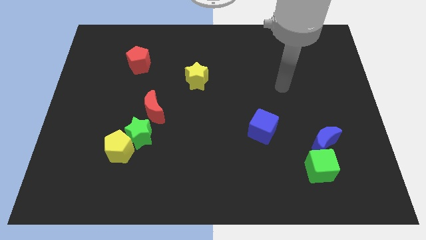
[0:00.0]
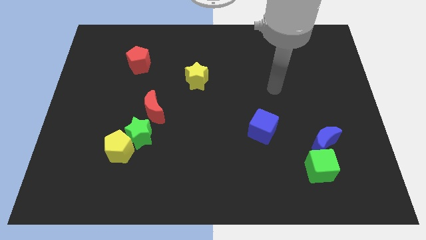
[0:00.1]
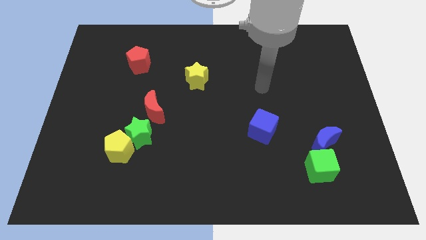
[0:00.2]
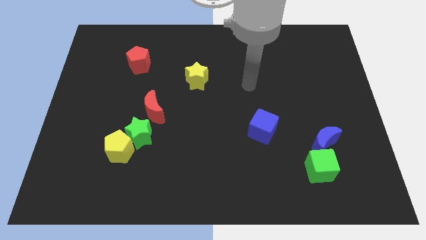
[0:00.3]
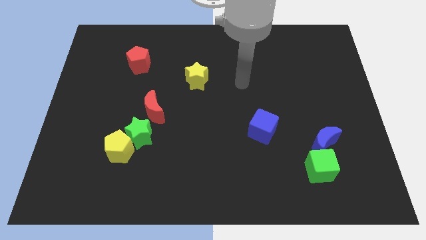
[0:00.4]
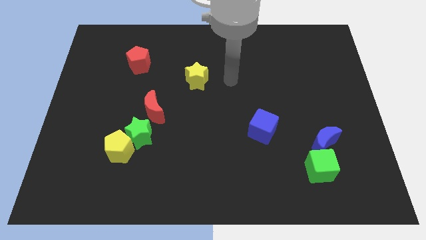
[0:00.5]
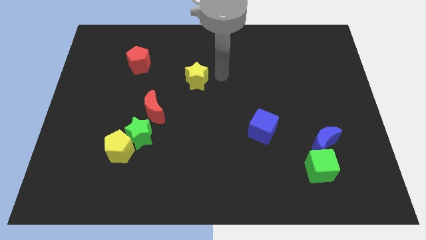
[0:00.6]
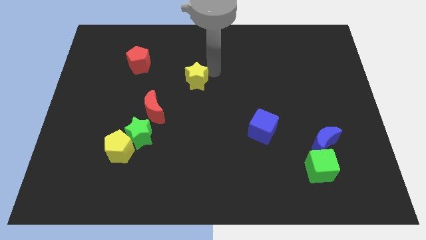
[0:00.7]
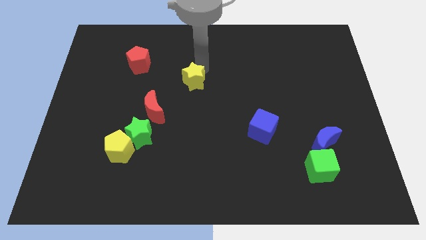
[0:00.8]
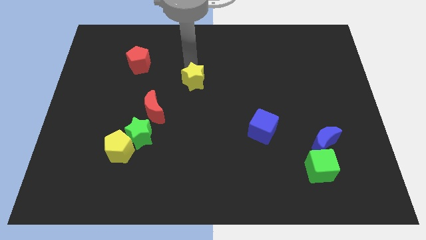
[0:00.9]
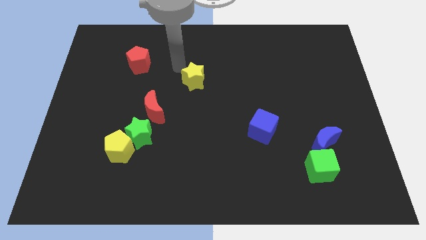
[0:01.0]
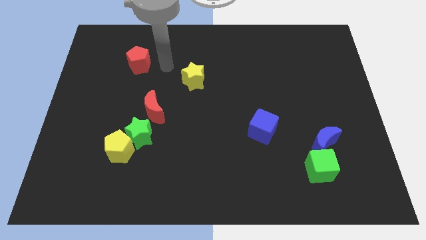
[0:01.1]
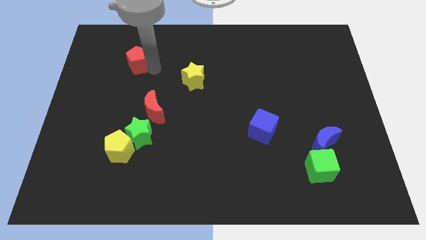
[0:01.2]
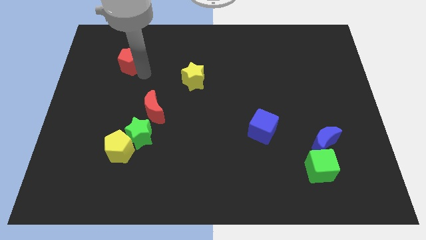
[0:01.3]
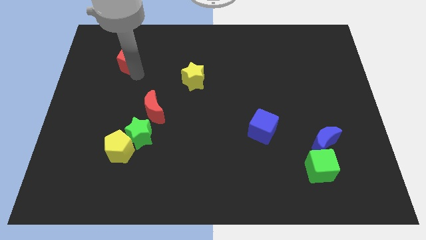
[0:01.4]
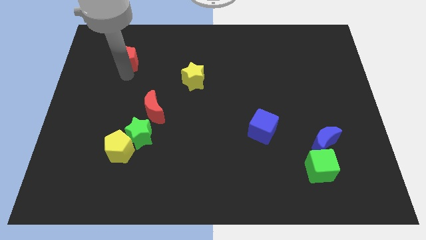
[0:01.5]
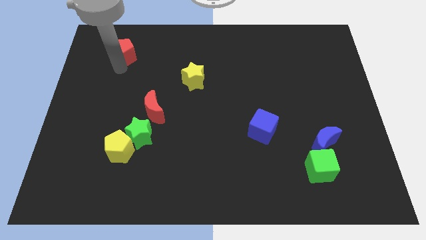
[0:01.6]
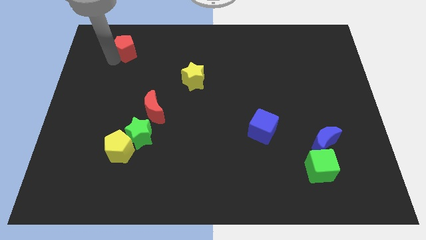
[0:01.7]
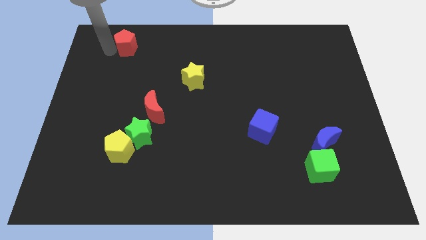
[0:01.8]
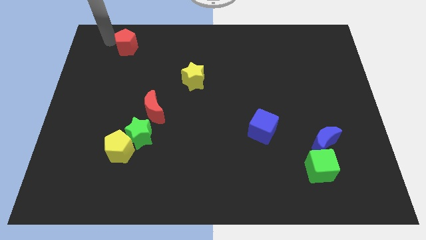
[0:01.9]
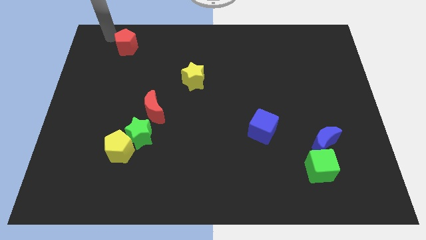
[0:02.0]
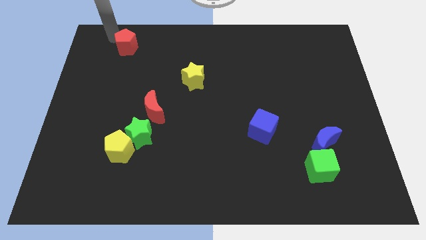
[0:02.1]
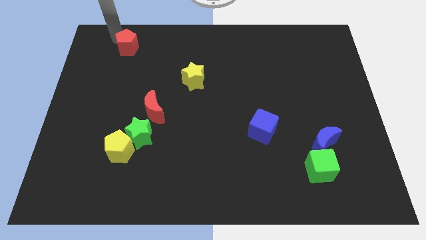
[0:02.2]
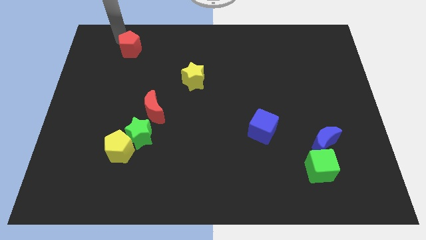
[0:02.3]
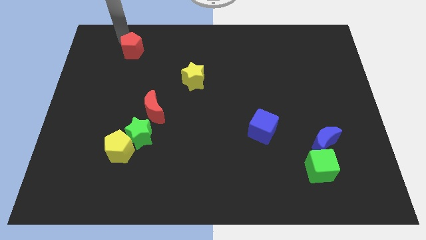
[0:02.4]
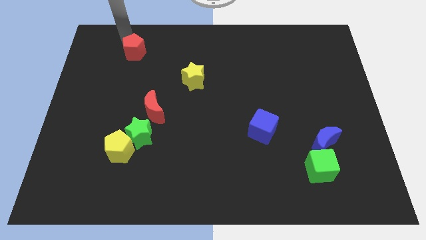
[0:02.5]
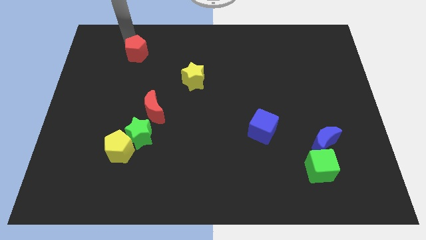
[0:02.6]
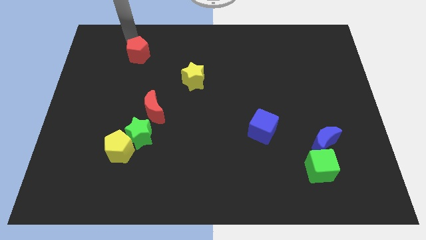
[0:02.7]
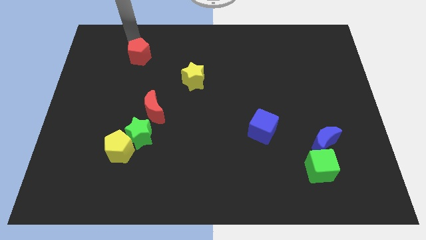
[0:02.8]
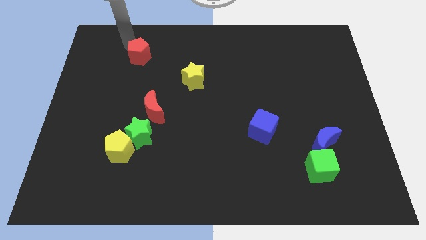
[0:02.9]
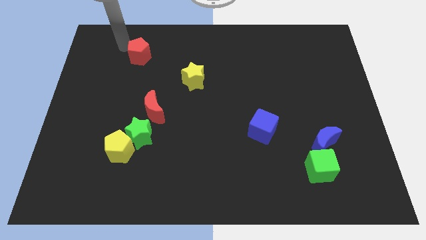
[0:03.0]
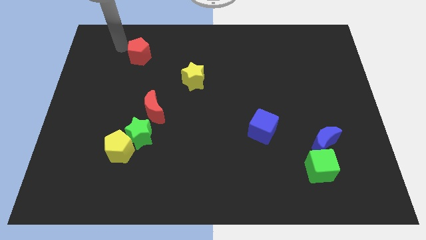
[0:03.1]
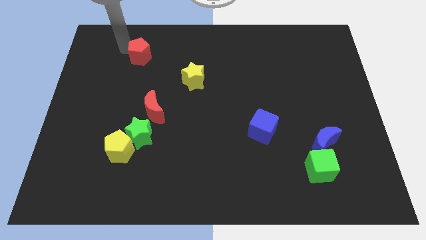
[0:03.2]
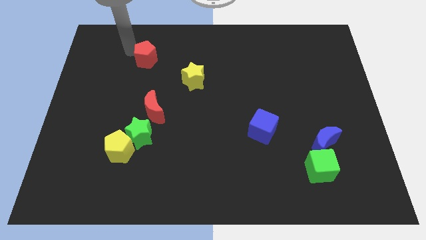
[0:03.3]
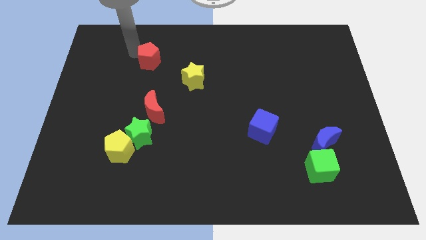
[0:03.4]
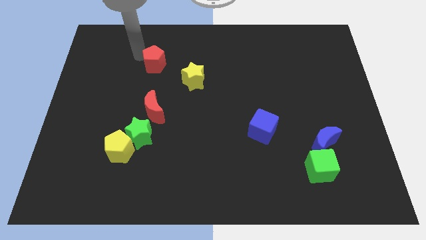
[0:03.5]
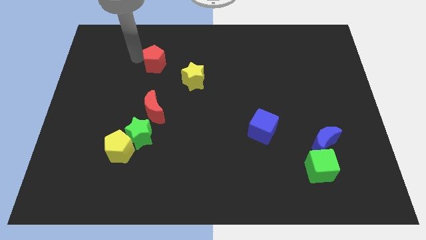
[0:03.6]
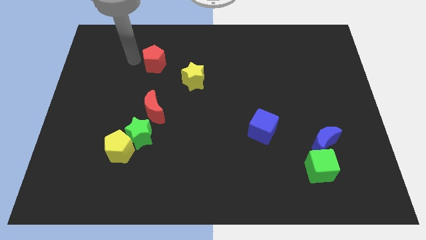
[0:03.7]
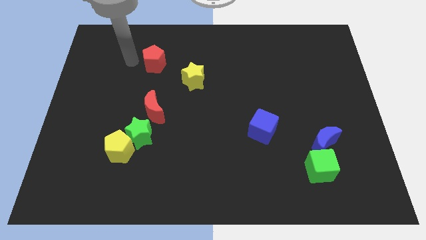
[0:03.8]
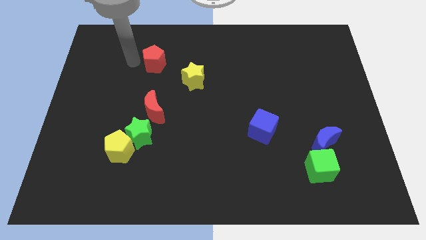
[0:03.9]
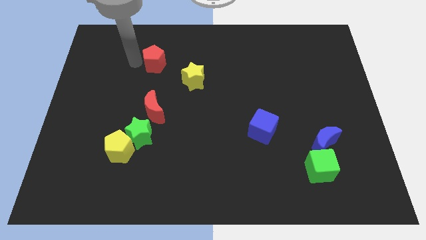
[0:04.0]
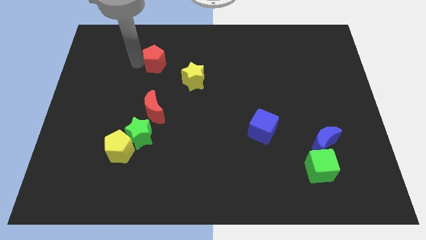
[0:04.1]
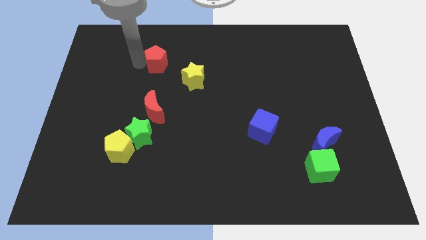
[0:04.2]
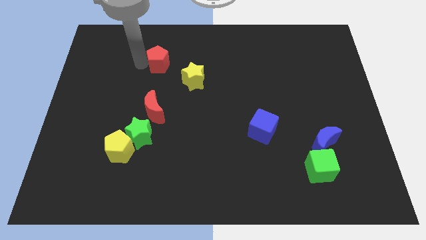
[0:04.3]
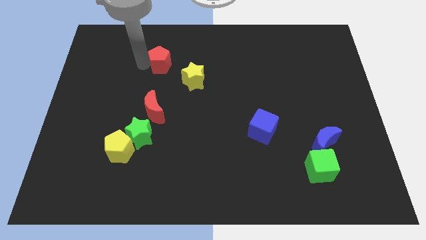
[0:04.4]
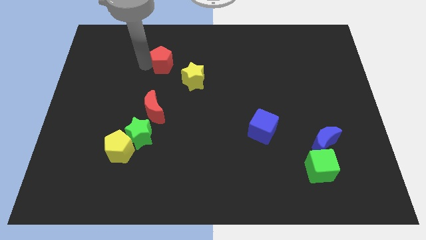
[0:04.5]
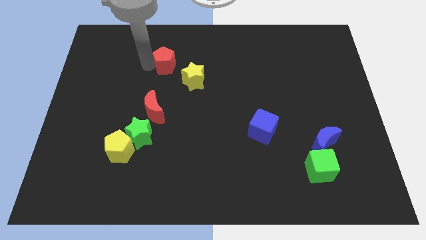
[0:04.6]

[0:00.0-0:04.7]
move the red pentagon to the right a little

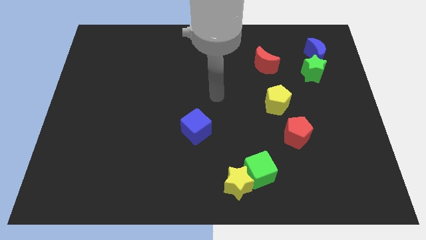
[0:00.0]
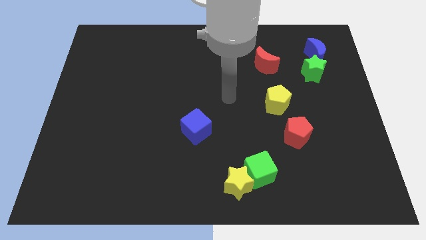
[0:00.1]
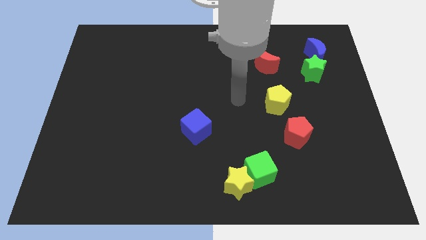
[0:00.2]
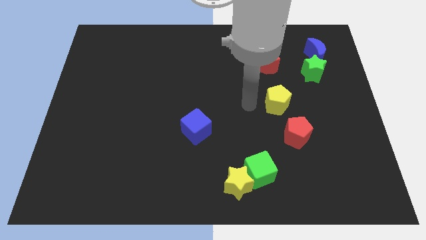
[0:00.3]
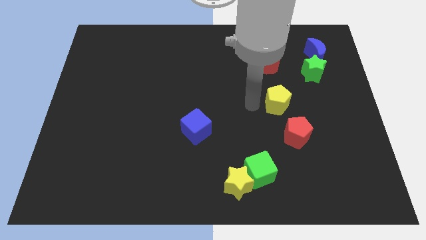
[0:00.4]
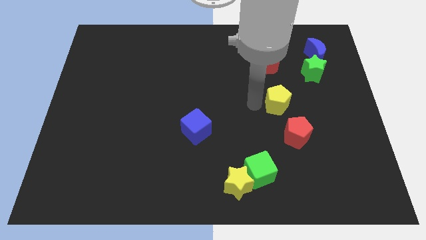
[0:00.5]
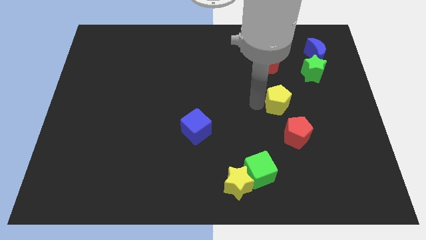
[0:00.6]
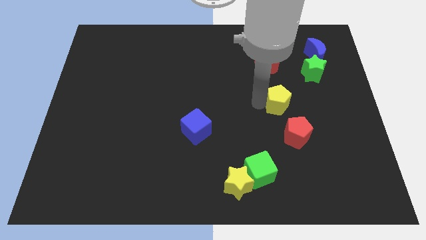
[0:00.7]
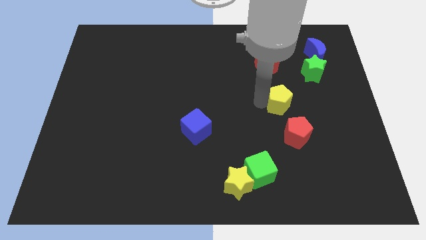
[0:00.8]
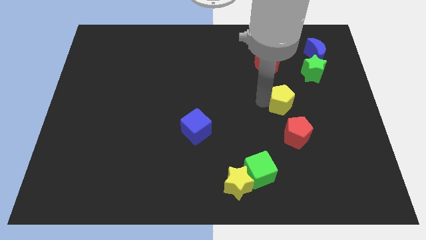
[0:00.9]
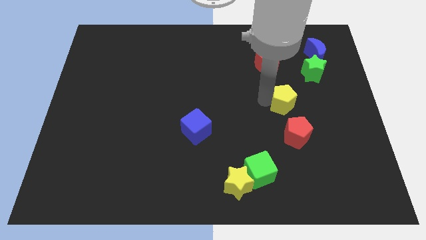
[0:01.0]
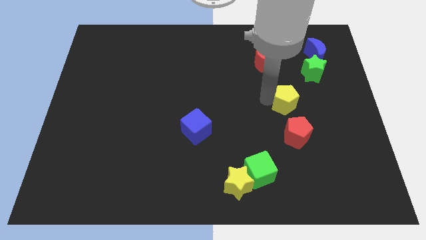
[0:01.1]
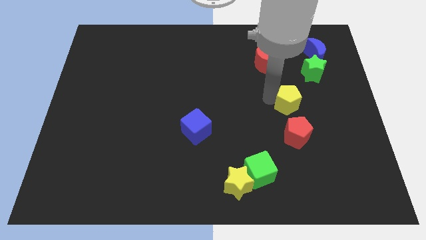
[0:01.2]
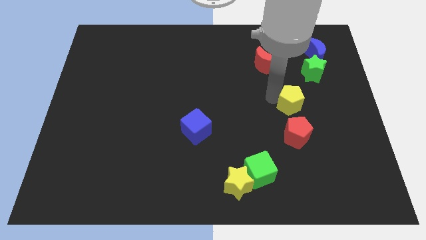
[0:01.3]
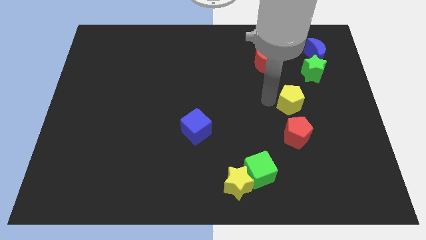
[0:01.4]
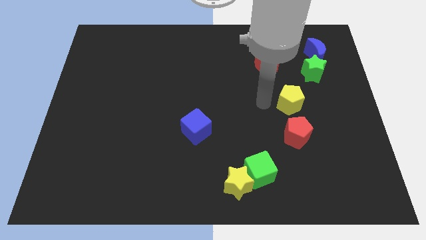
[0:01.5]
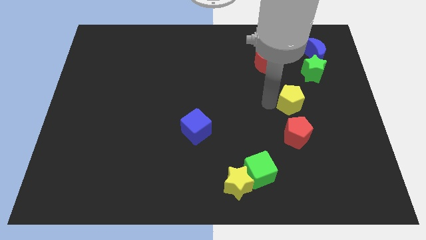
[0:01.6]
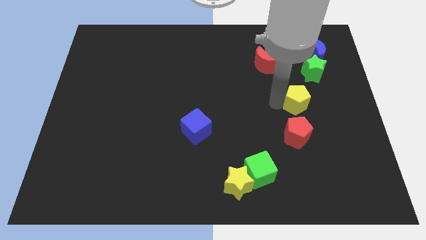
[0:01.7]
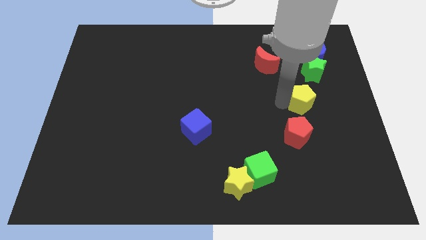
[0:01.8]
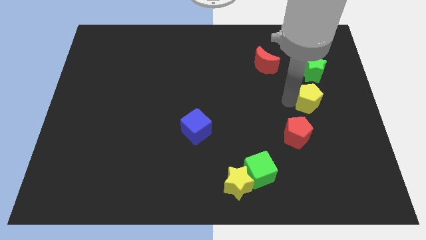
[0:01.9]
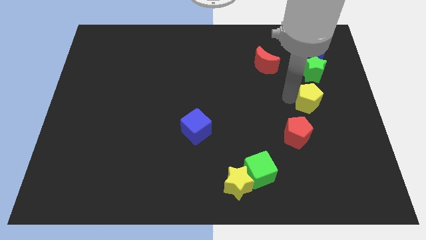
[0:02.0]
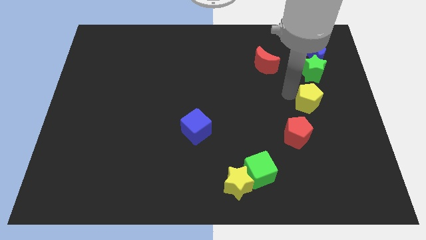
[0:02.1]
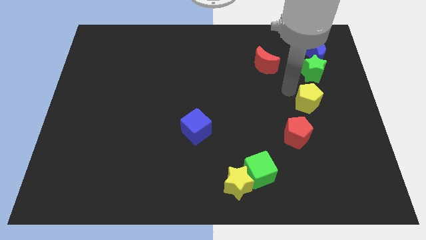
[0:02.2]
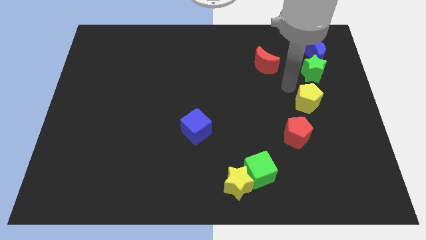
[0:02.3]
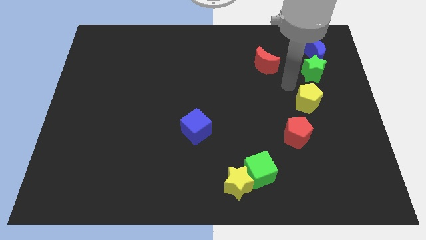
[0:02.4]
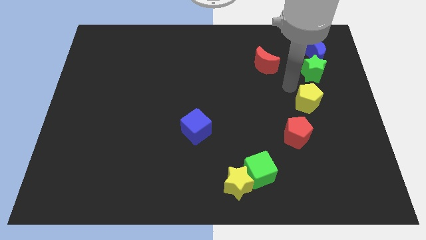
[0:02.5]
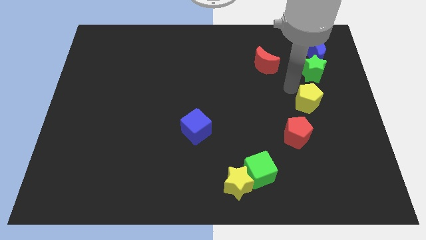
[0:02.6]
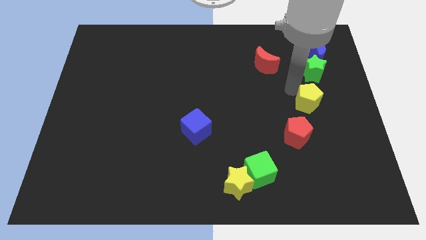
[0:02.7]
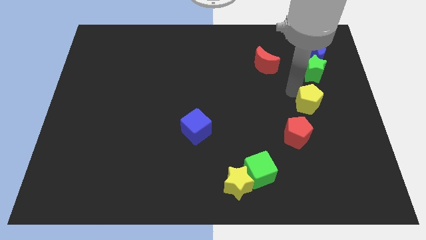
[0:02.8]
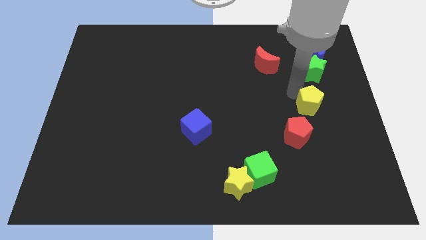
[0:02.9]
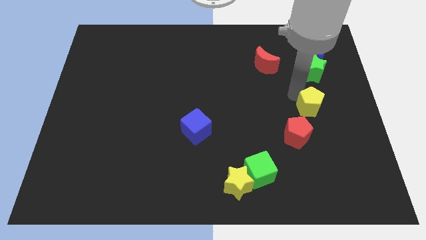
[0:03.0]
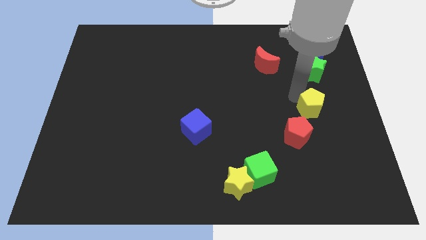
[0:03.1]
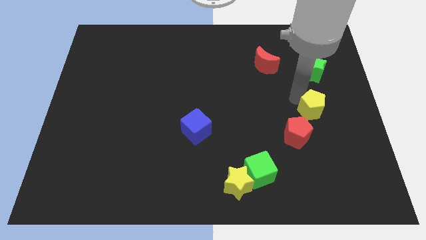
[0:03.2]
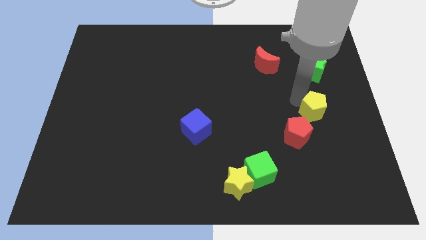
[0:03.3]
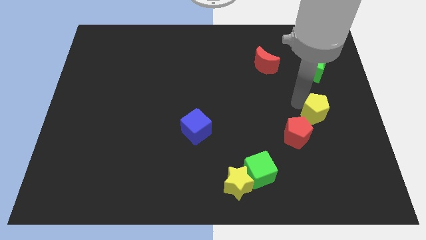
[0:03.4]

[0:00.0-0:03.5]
push the yellow pentagon diagonally downwards and to the right a bit

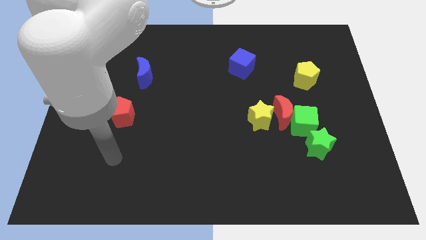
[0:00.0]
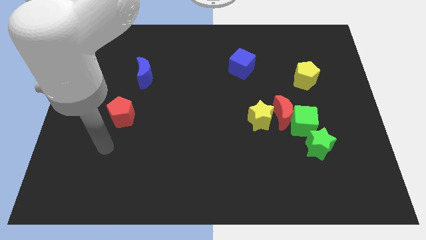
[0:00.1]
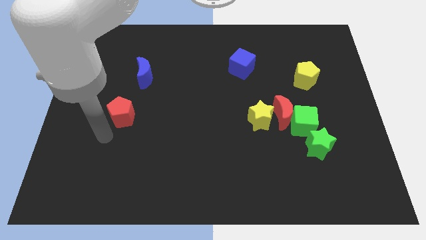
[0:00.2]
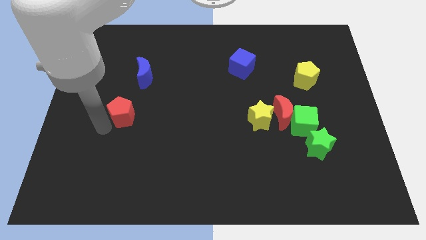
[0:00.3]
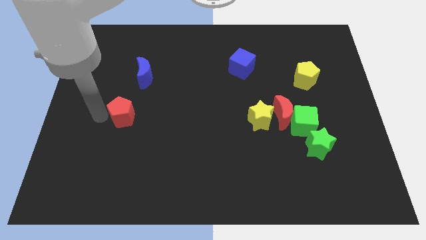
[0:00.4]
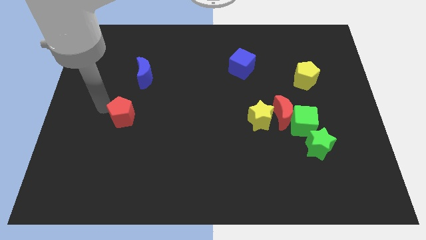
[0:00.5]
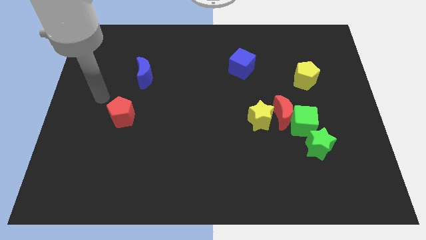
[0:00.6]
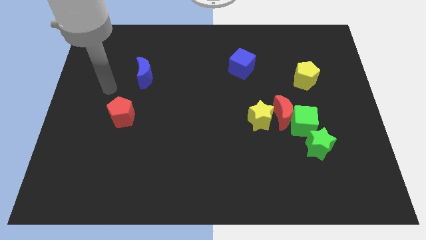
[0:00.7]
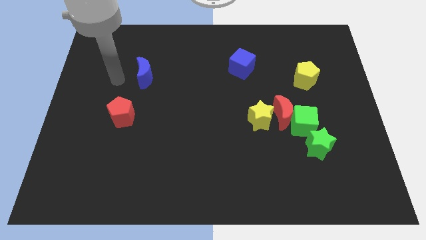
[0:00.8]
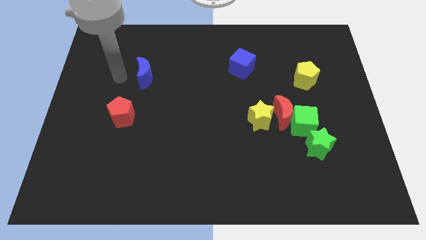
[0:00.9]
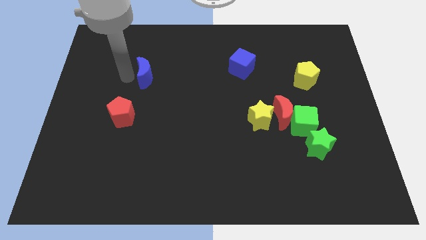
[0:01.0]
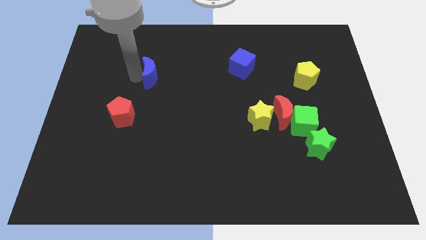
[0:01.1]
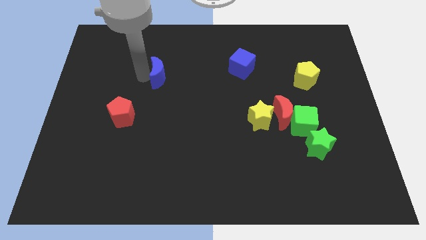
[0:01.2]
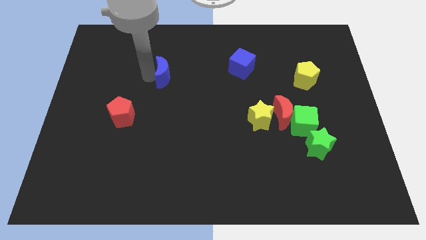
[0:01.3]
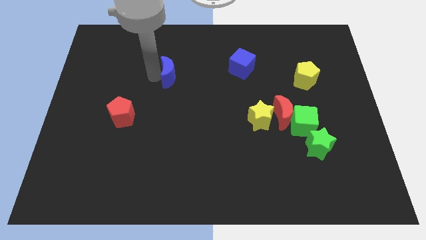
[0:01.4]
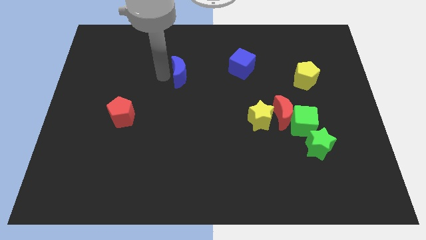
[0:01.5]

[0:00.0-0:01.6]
slide the blue moon a little right
